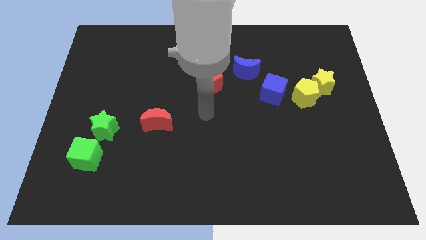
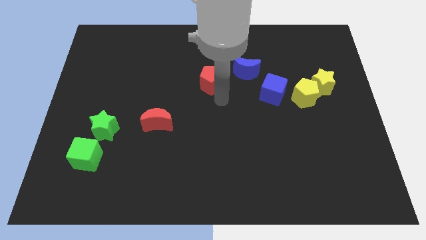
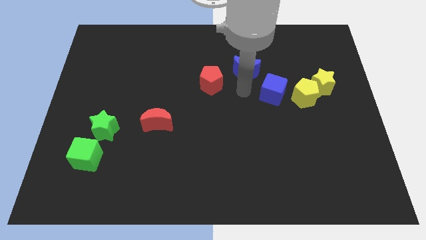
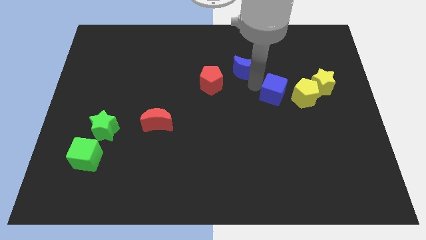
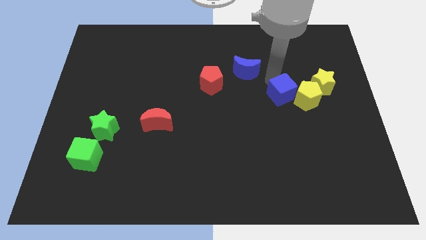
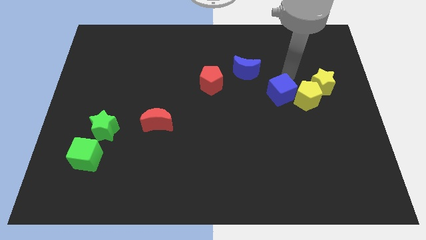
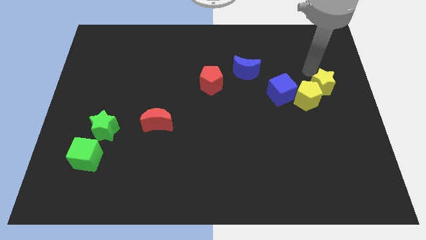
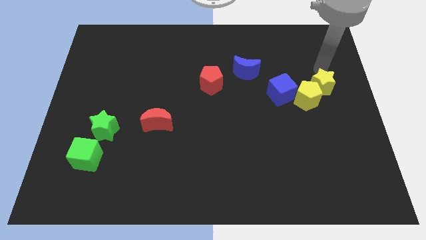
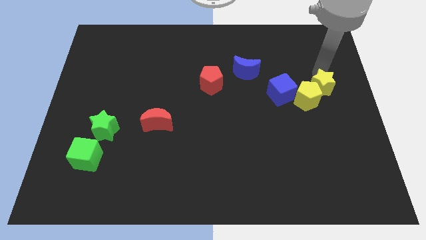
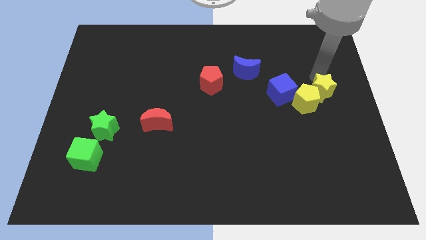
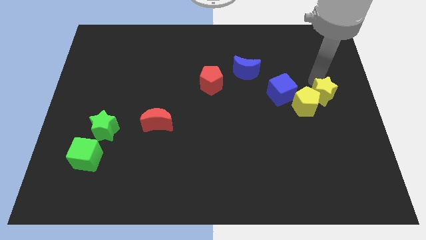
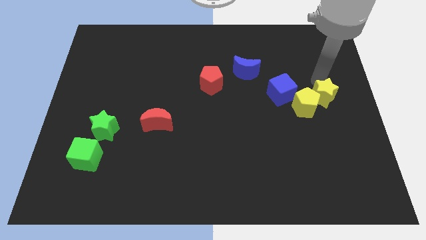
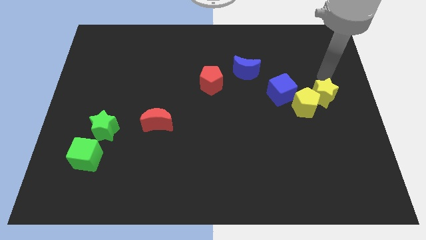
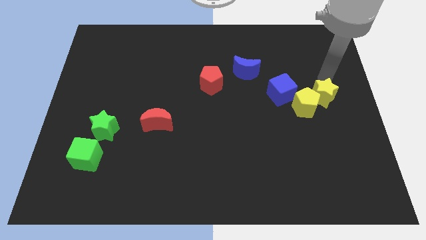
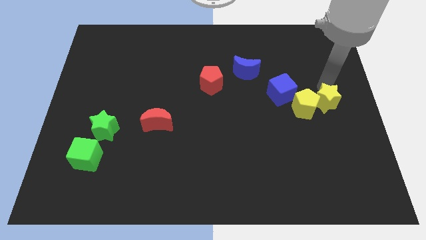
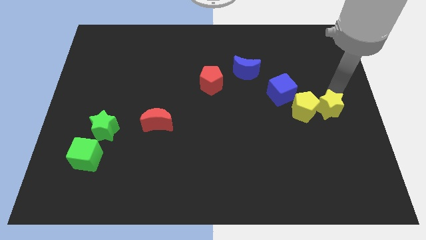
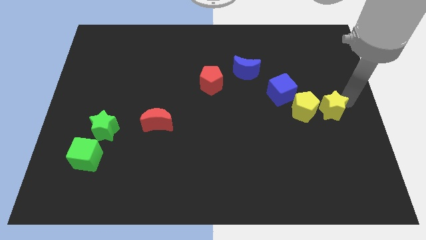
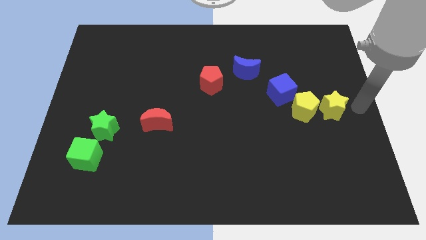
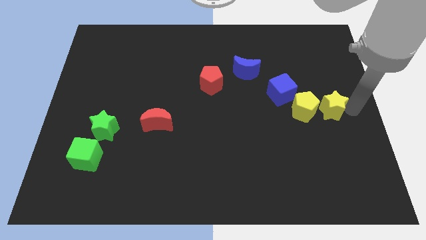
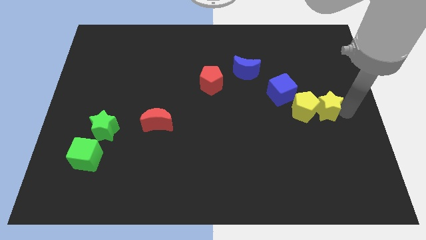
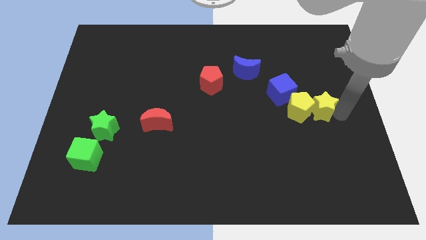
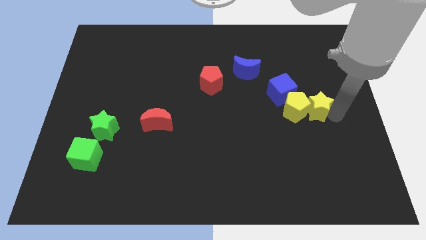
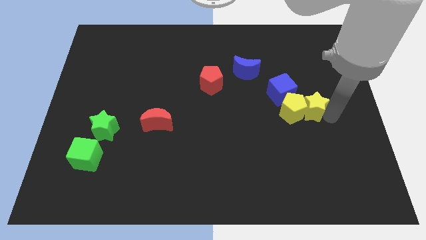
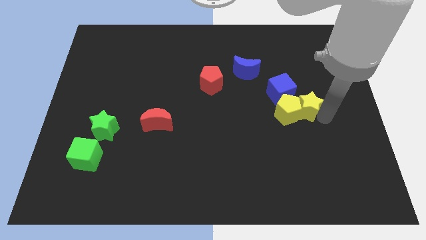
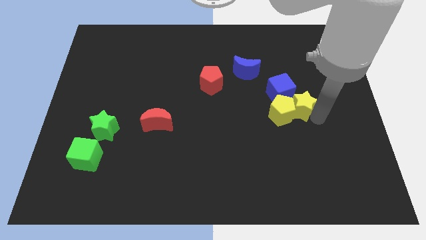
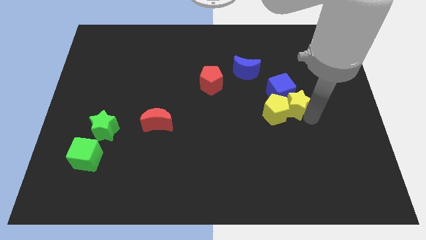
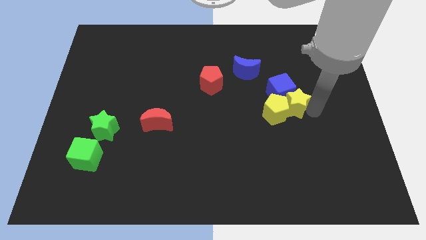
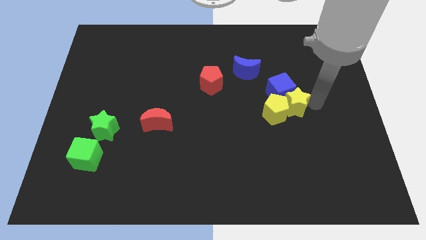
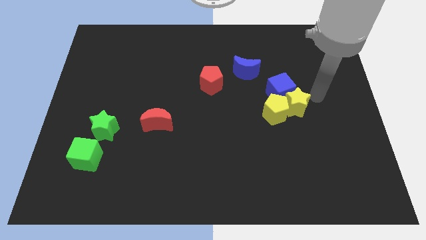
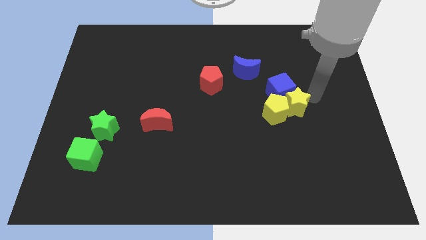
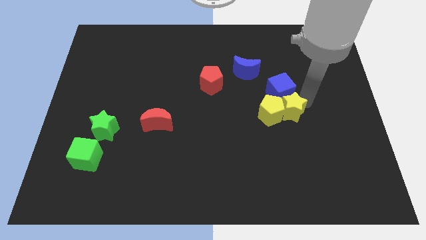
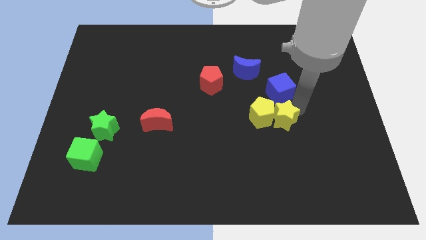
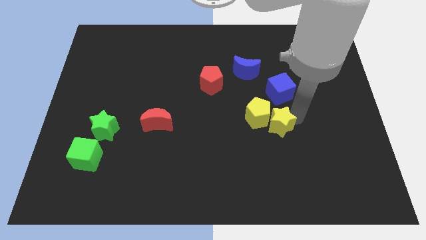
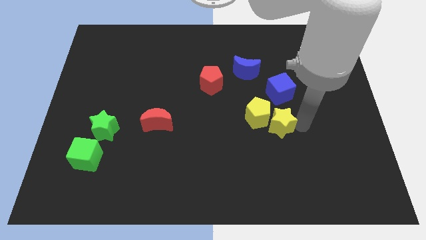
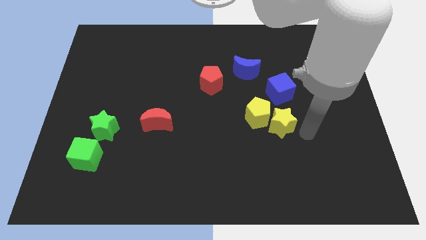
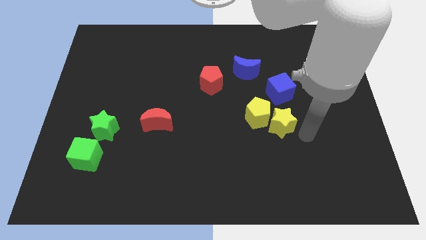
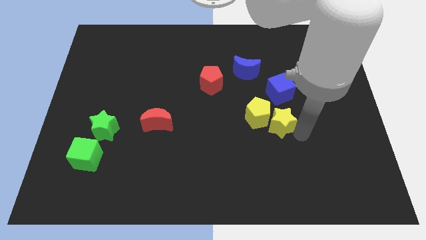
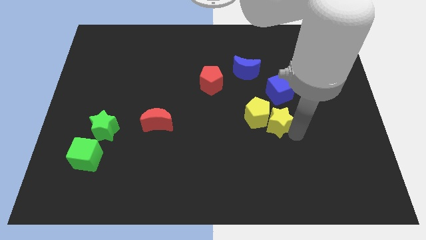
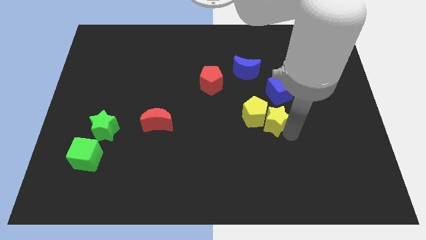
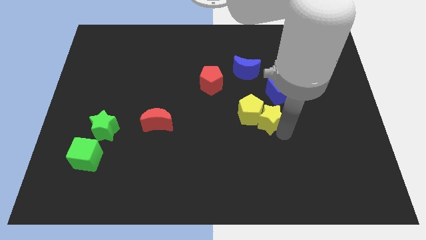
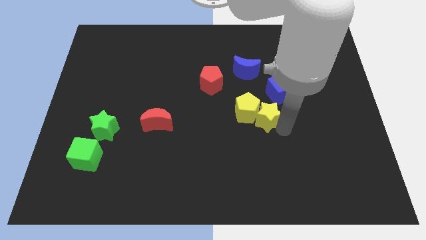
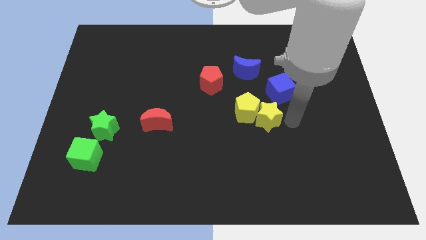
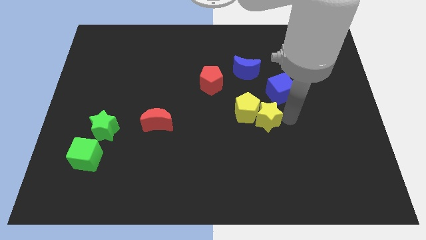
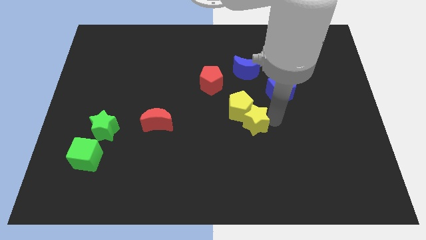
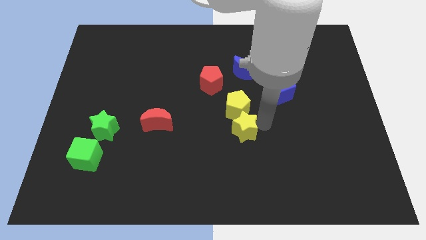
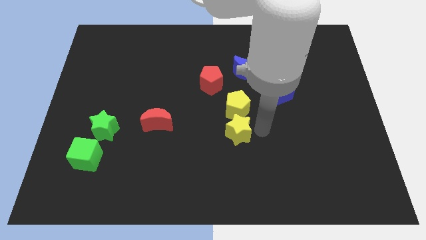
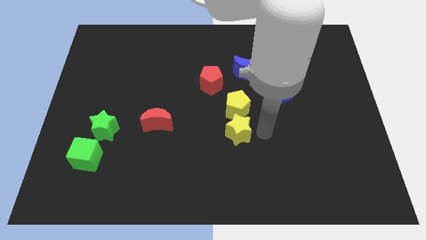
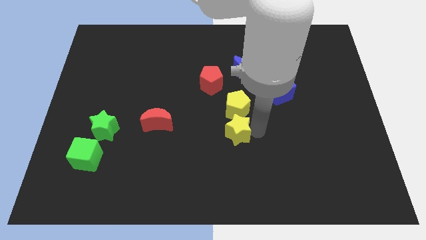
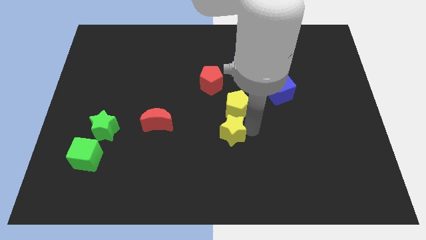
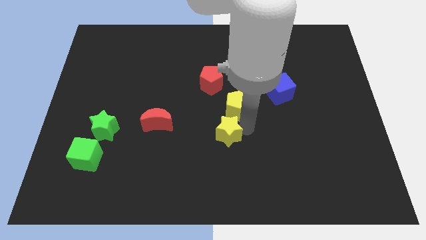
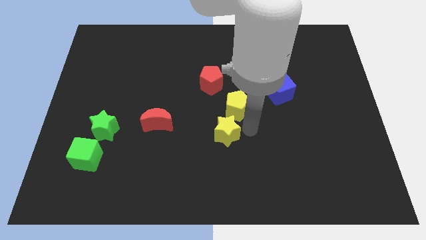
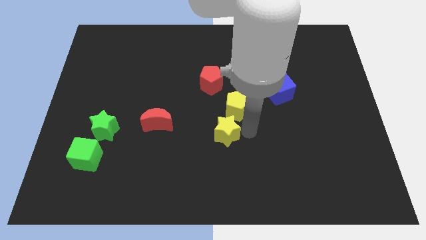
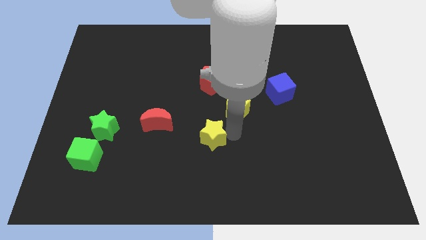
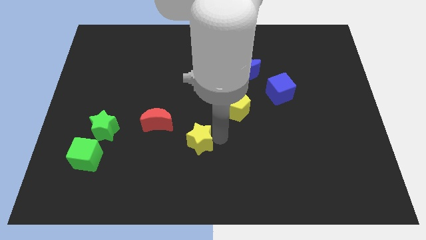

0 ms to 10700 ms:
push the yellow star to the bottom right of the red moon

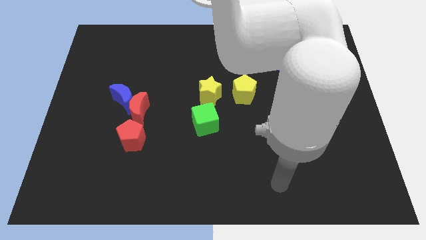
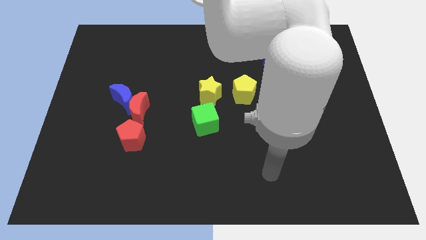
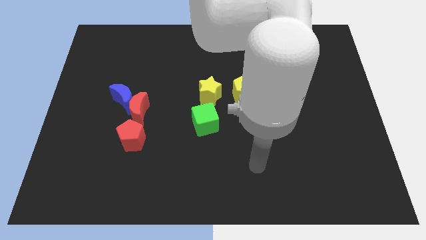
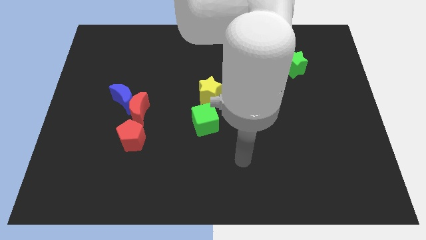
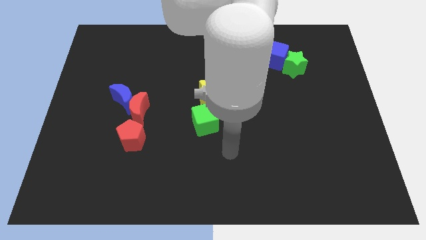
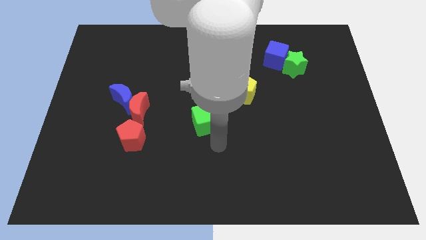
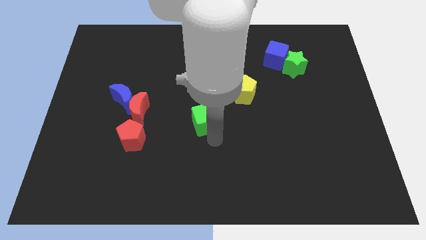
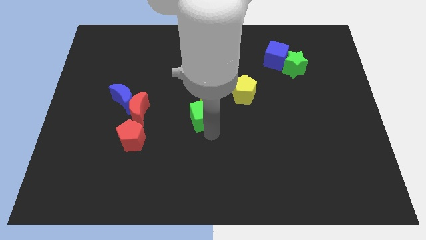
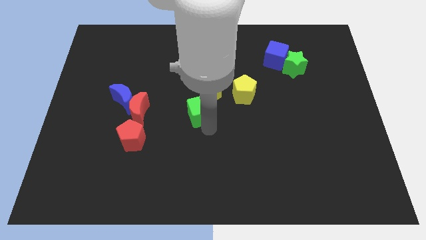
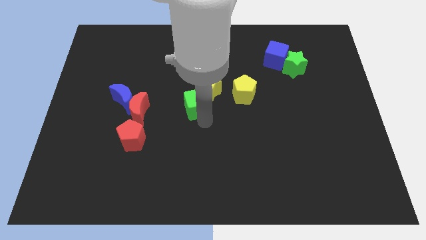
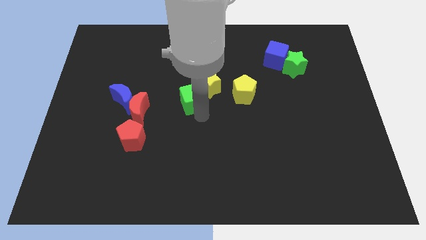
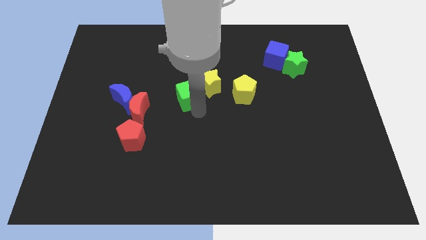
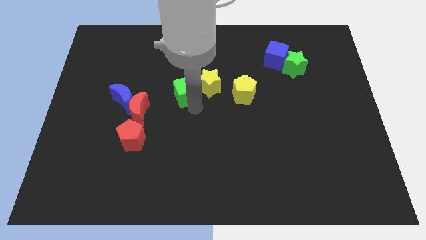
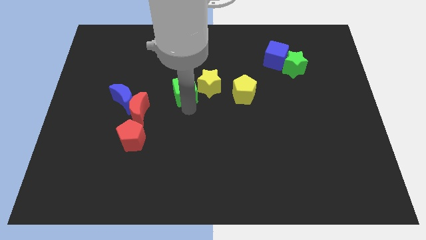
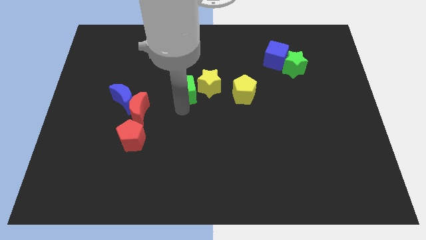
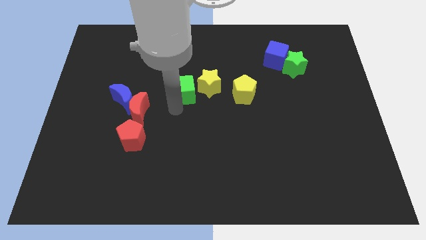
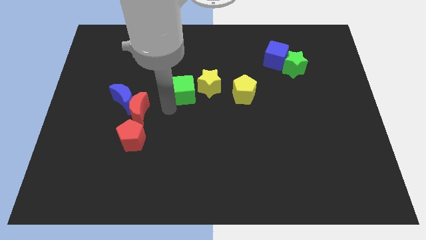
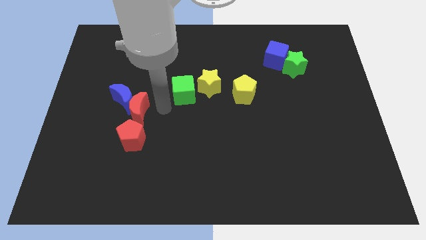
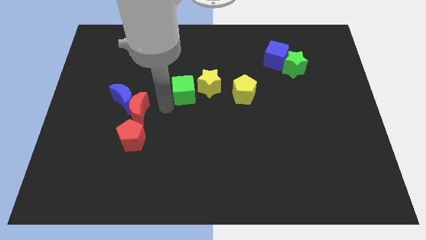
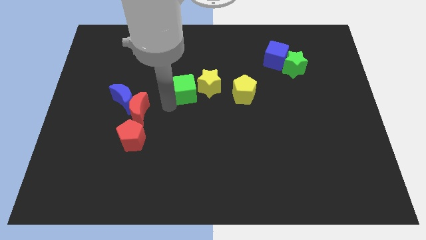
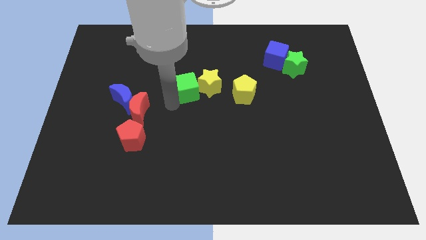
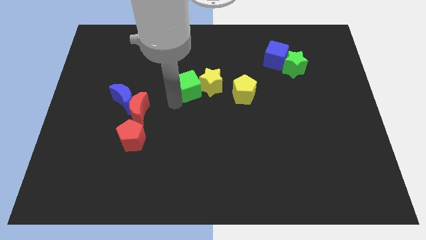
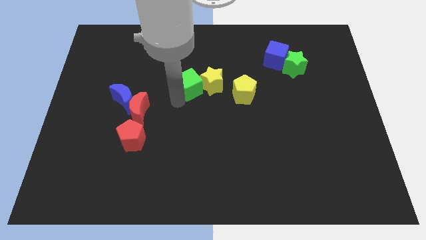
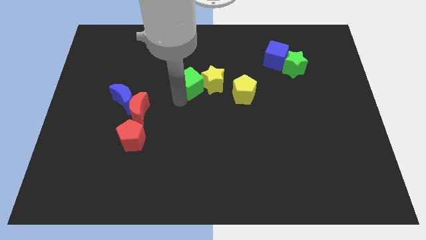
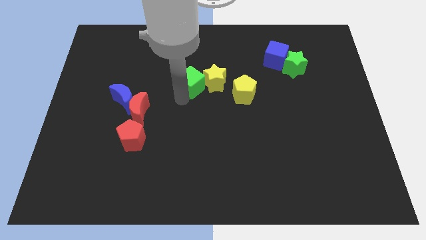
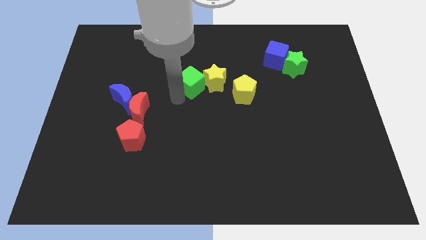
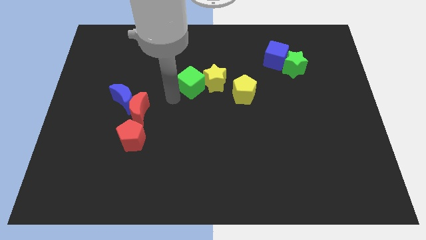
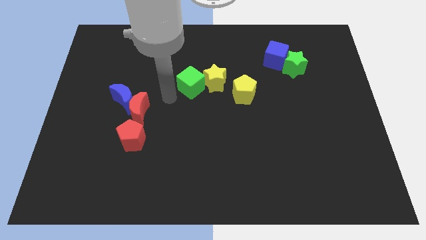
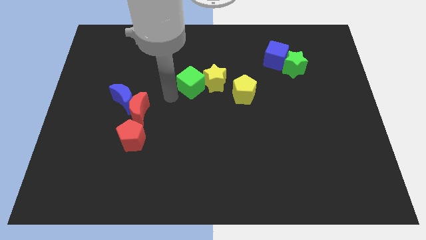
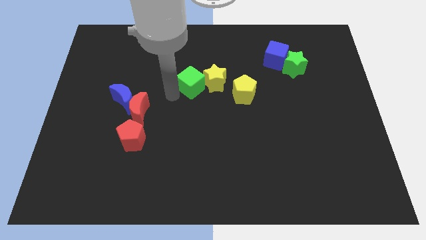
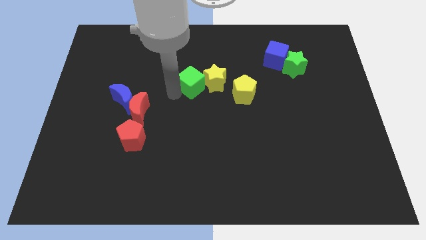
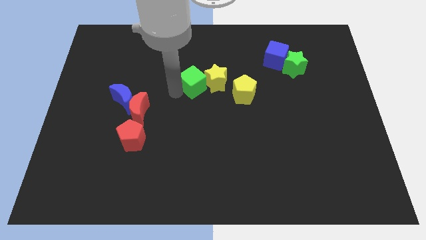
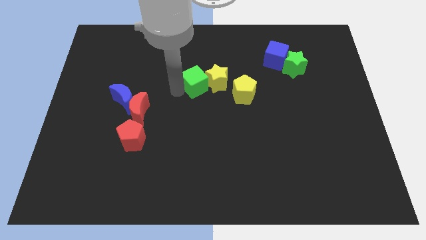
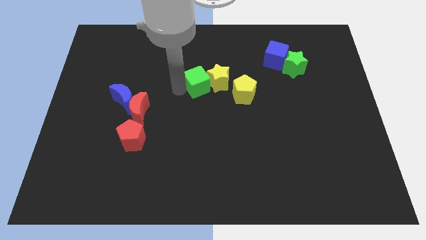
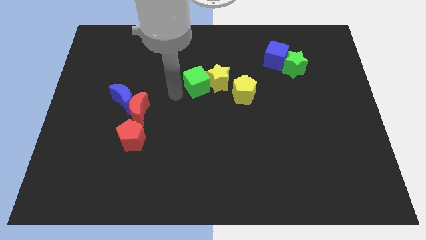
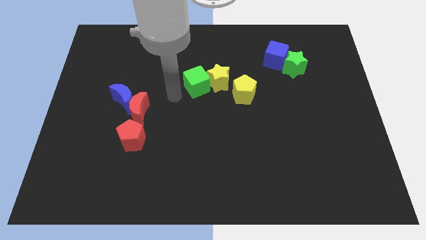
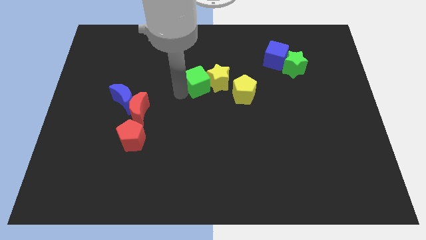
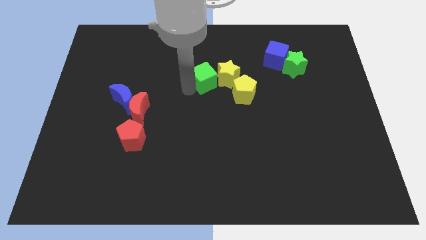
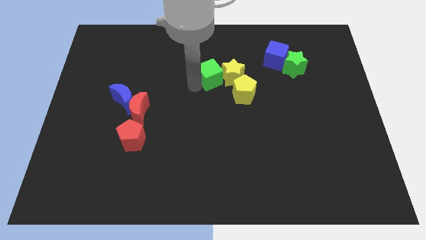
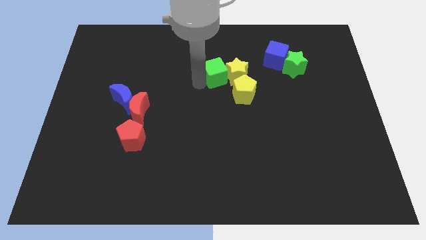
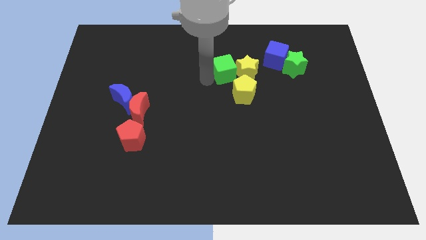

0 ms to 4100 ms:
slide the green cube above the yellow pentagon
